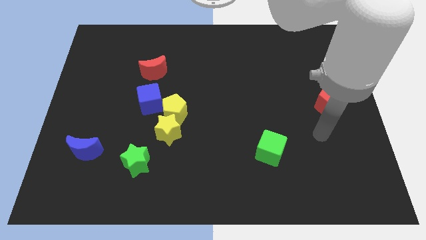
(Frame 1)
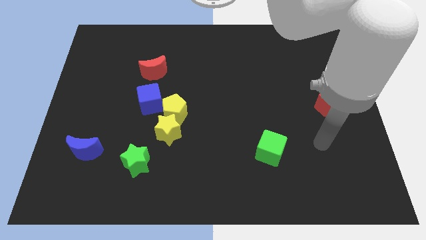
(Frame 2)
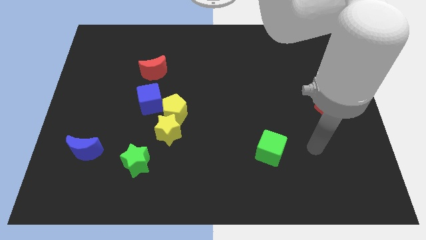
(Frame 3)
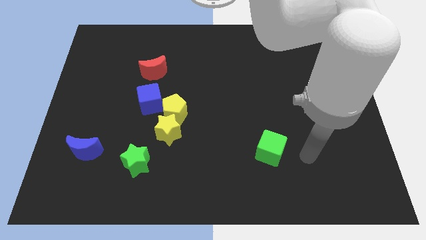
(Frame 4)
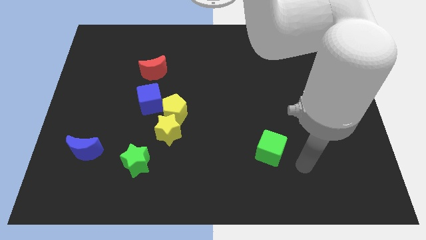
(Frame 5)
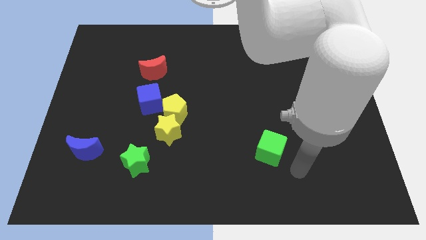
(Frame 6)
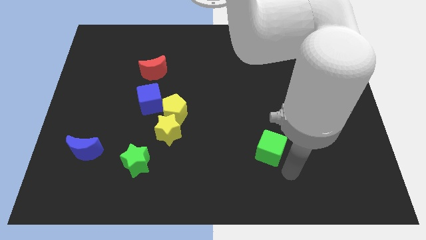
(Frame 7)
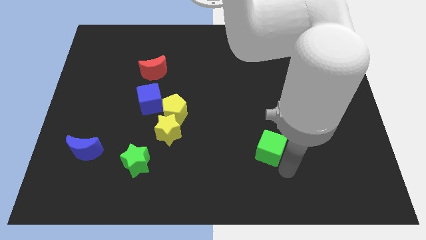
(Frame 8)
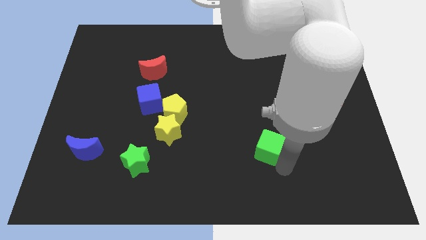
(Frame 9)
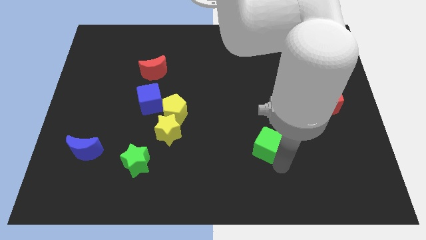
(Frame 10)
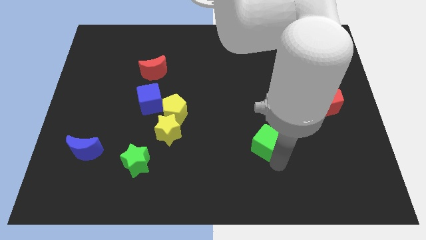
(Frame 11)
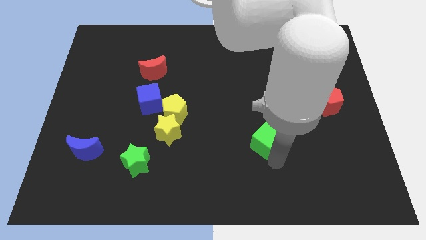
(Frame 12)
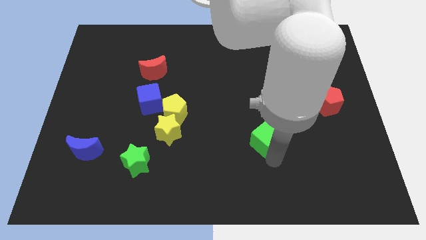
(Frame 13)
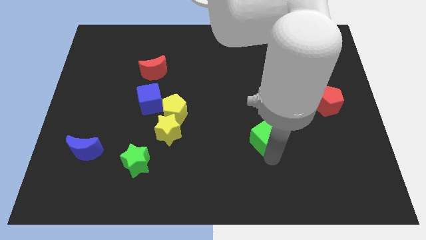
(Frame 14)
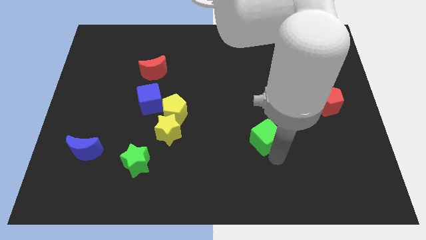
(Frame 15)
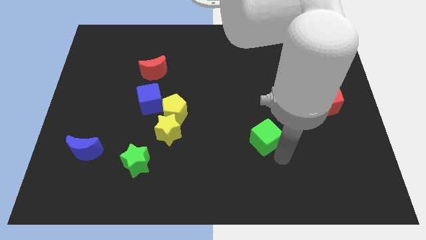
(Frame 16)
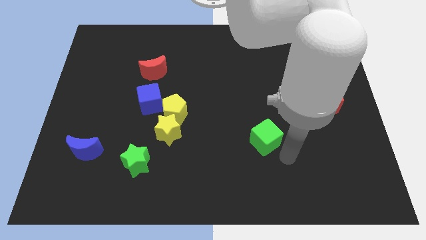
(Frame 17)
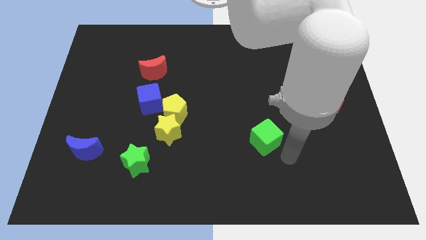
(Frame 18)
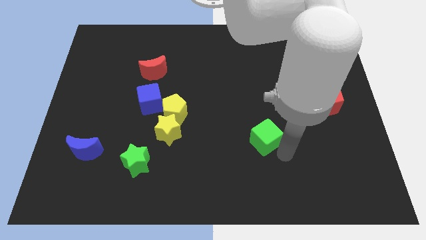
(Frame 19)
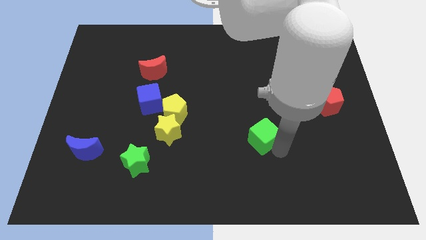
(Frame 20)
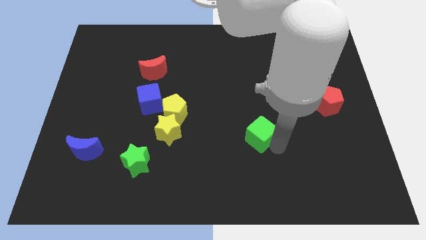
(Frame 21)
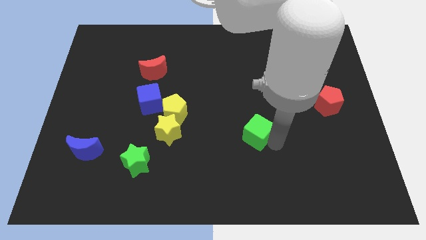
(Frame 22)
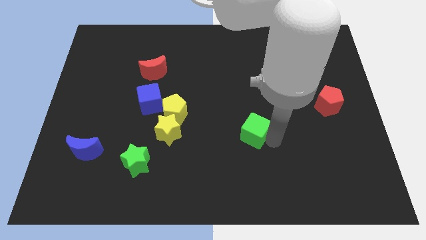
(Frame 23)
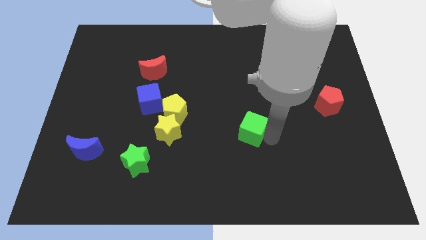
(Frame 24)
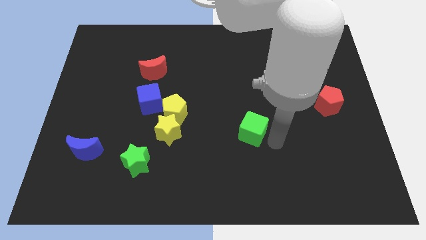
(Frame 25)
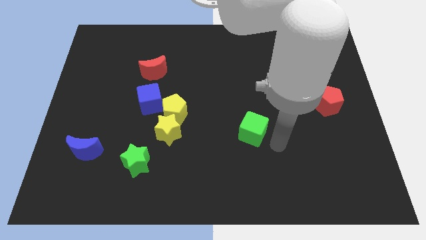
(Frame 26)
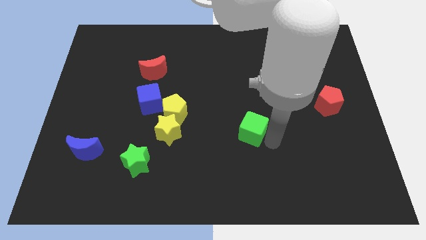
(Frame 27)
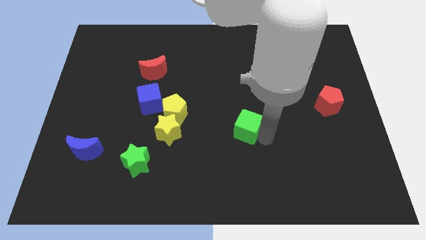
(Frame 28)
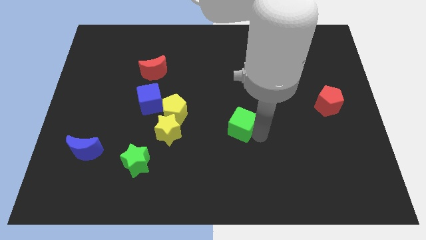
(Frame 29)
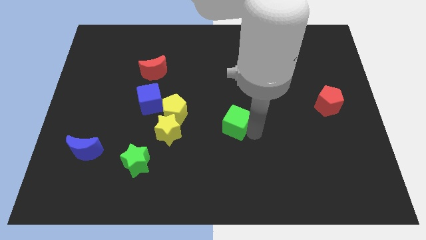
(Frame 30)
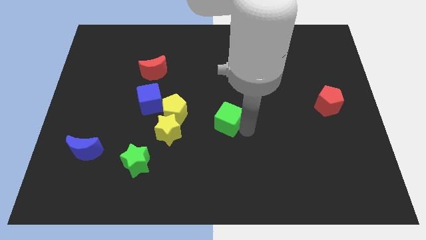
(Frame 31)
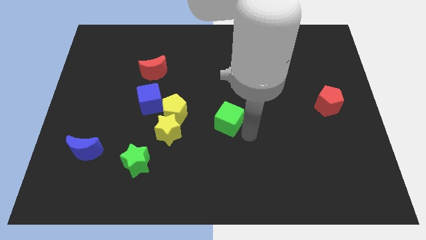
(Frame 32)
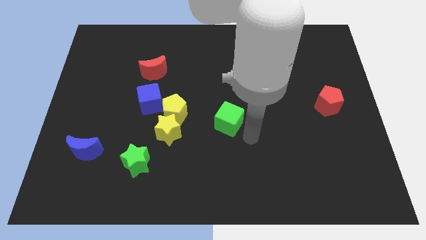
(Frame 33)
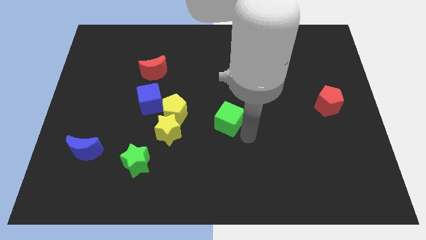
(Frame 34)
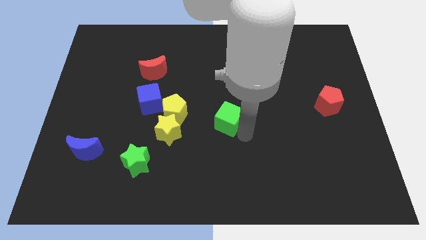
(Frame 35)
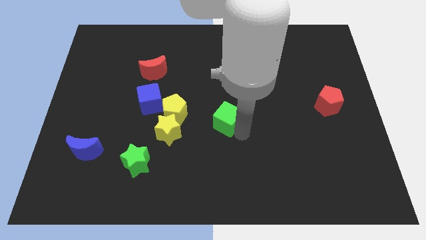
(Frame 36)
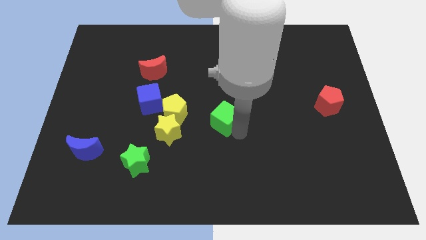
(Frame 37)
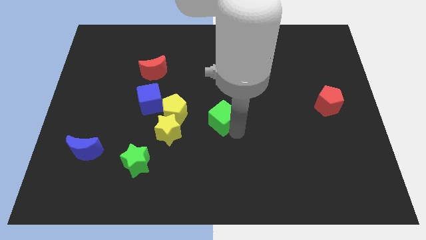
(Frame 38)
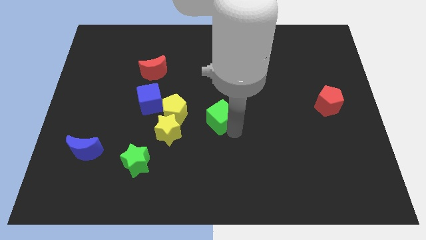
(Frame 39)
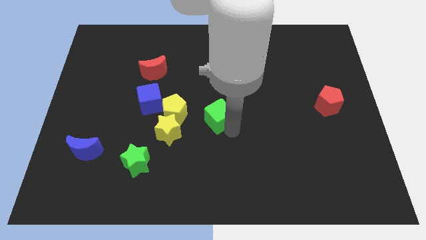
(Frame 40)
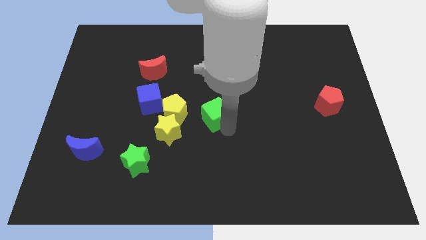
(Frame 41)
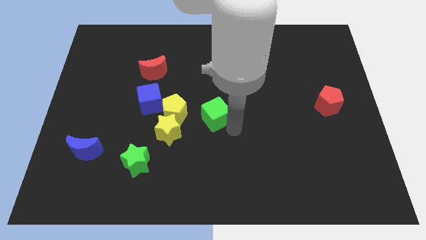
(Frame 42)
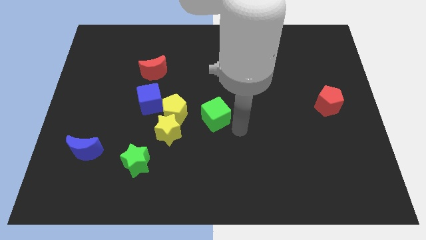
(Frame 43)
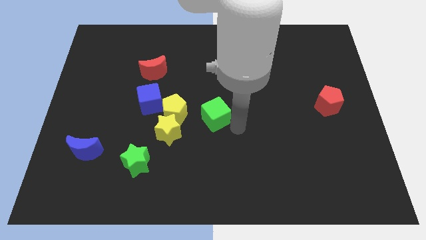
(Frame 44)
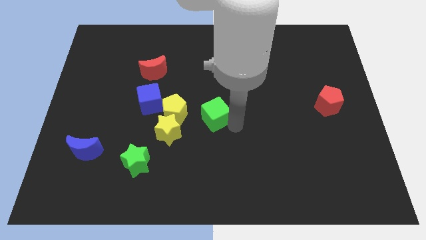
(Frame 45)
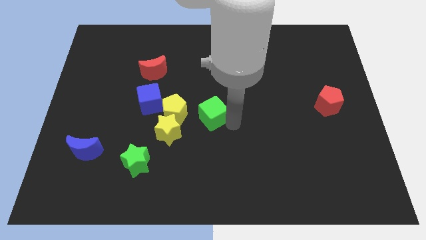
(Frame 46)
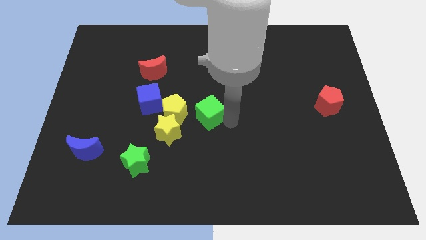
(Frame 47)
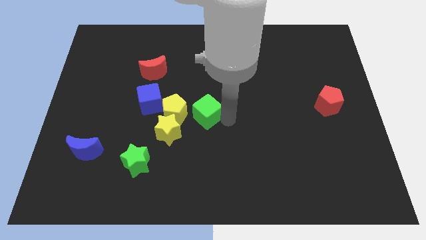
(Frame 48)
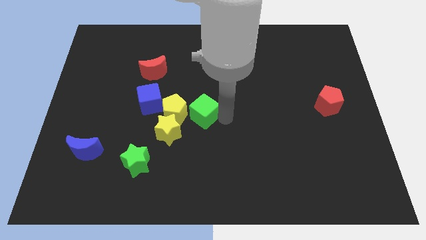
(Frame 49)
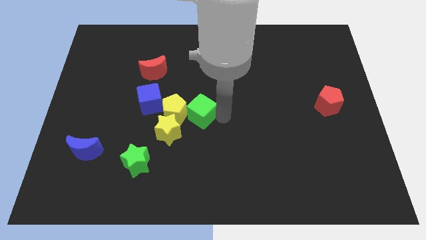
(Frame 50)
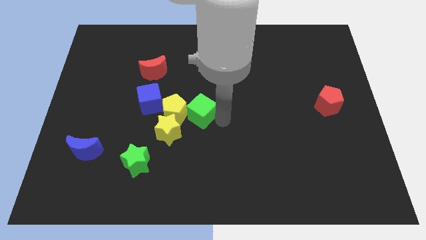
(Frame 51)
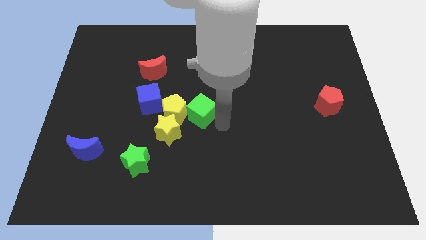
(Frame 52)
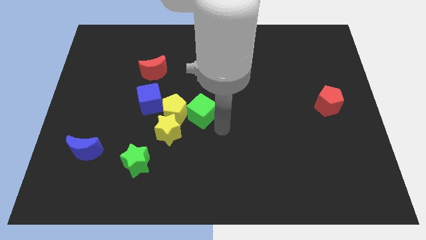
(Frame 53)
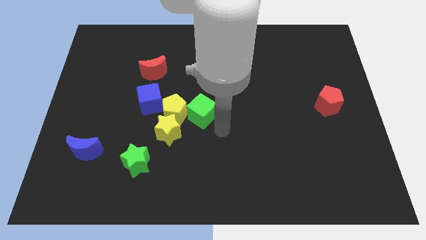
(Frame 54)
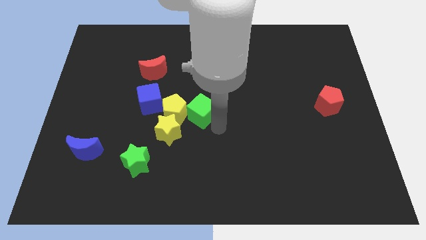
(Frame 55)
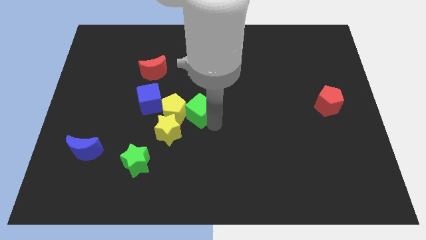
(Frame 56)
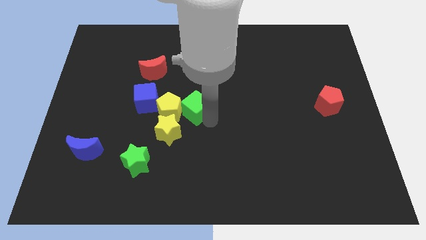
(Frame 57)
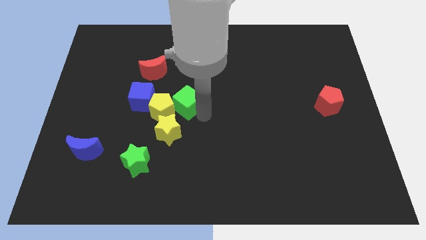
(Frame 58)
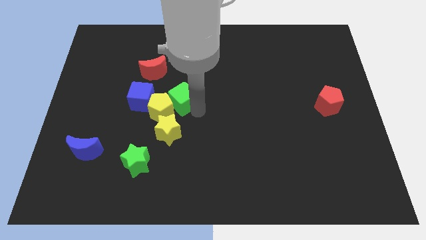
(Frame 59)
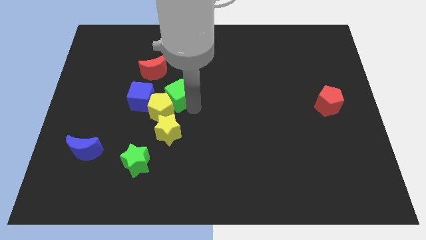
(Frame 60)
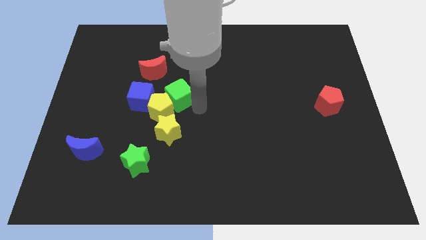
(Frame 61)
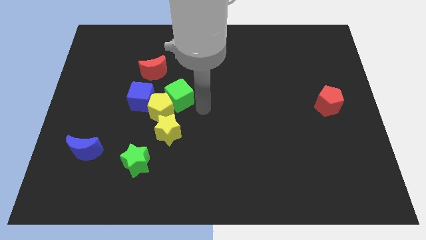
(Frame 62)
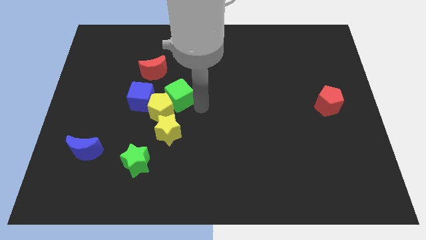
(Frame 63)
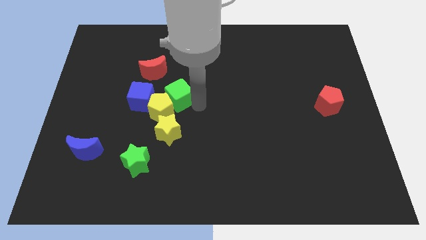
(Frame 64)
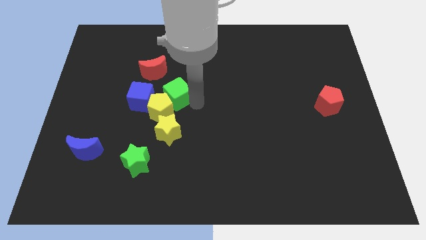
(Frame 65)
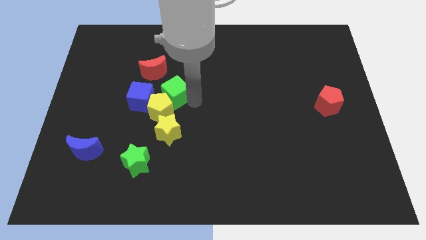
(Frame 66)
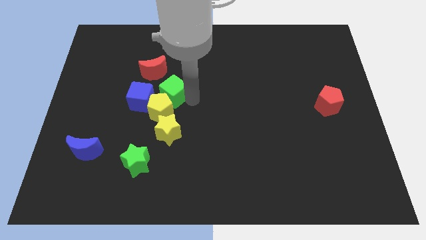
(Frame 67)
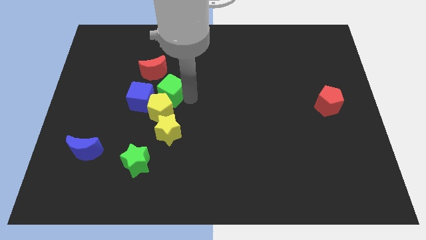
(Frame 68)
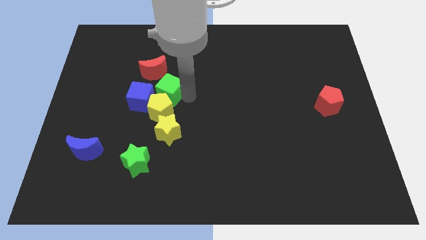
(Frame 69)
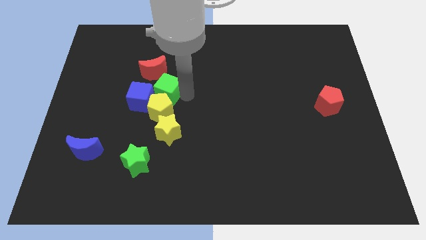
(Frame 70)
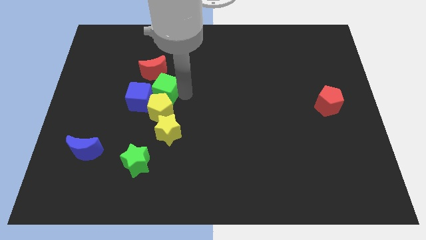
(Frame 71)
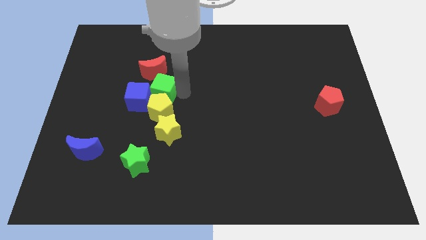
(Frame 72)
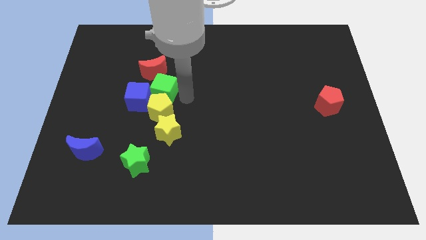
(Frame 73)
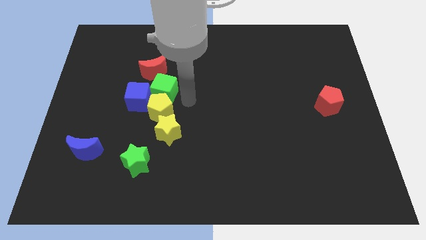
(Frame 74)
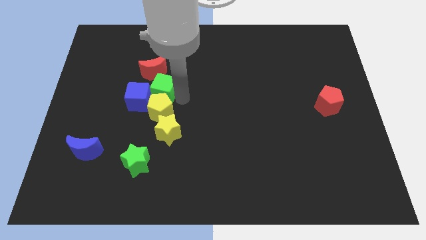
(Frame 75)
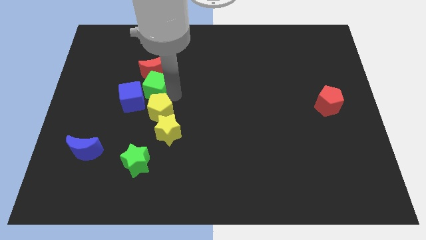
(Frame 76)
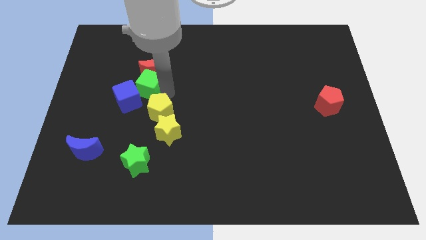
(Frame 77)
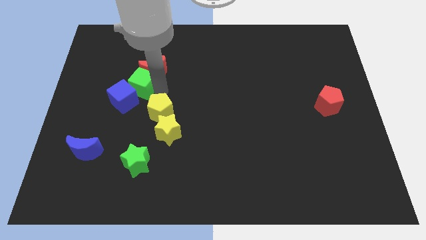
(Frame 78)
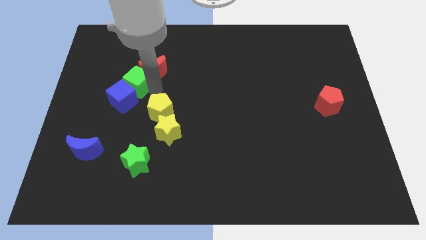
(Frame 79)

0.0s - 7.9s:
push the green cube to the left of the red moon
